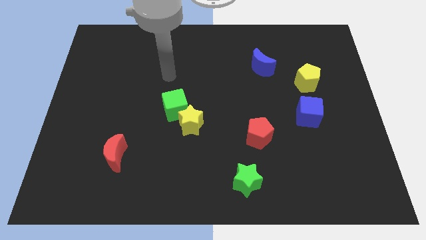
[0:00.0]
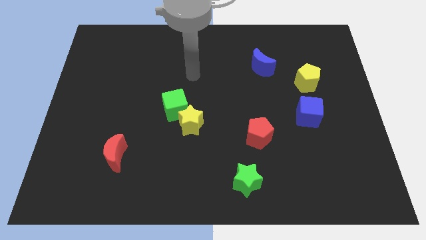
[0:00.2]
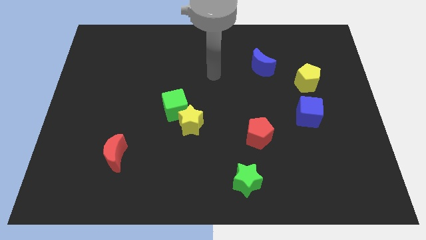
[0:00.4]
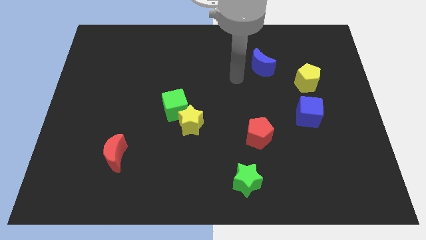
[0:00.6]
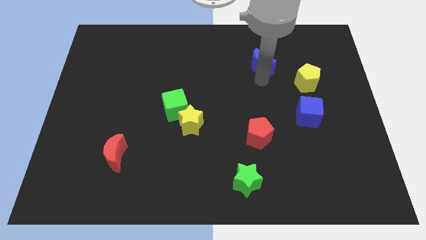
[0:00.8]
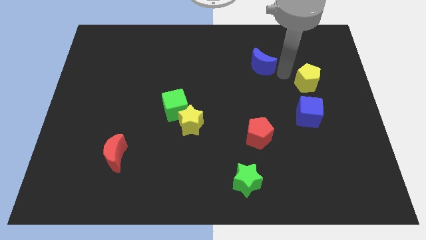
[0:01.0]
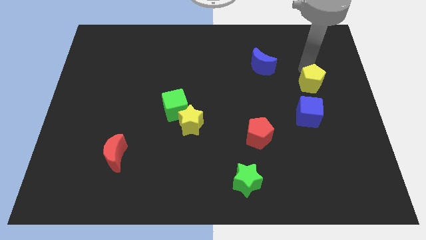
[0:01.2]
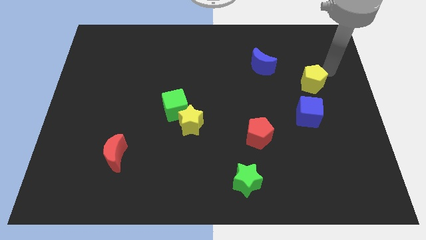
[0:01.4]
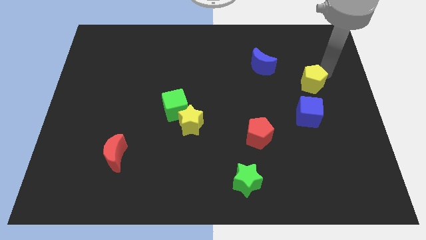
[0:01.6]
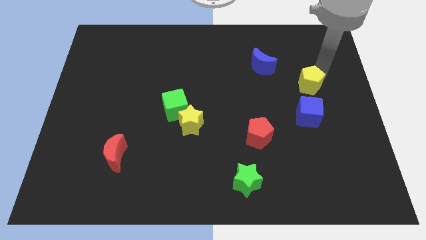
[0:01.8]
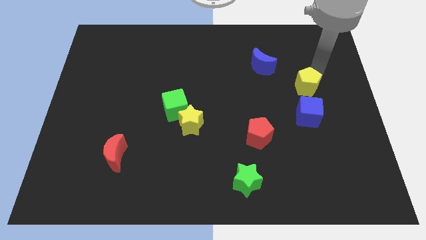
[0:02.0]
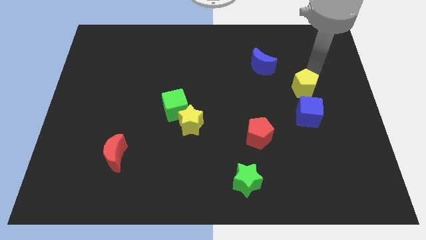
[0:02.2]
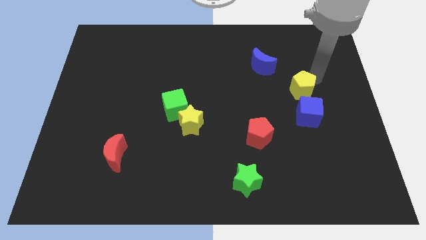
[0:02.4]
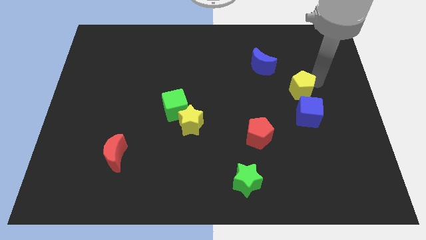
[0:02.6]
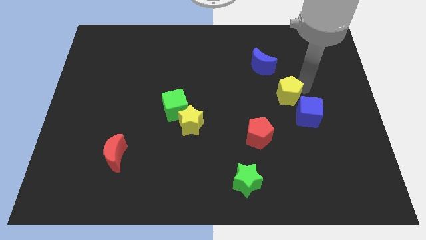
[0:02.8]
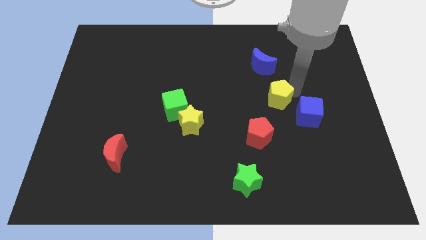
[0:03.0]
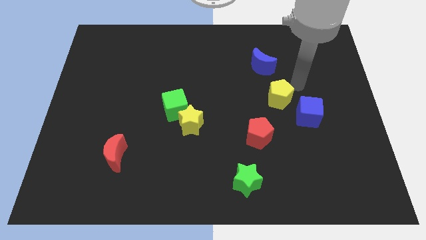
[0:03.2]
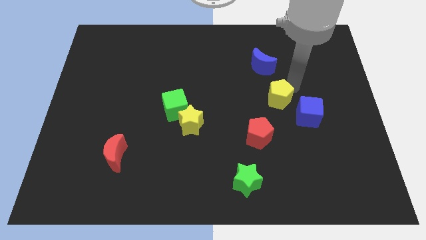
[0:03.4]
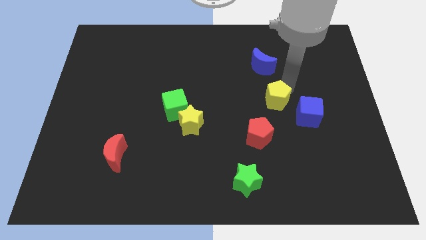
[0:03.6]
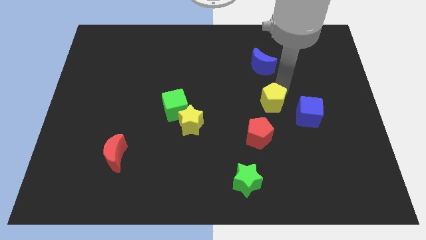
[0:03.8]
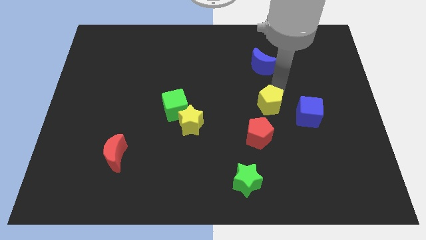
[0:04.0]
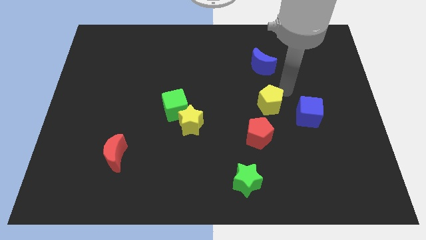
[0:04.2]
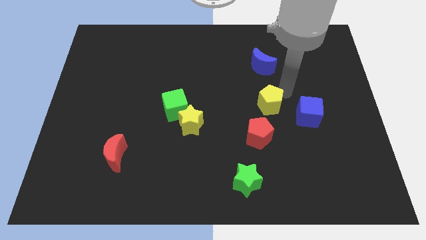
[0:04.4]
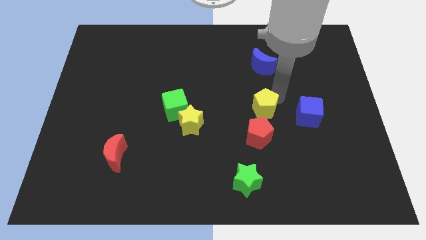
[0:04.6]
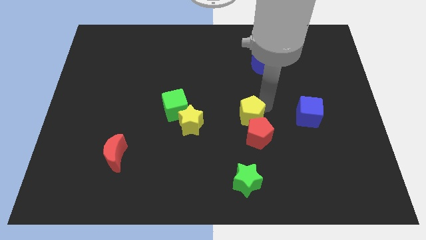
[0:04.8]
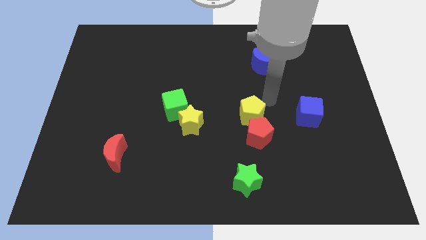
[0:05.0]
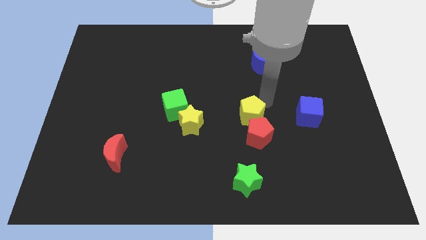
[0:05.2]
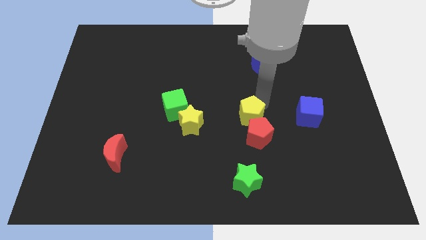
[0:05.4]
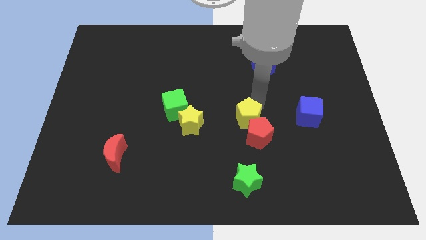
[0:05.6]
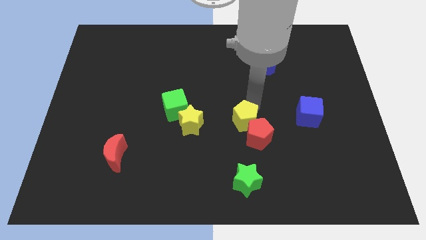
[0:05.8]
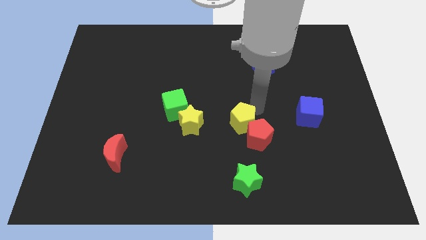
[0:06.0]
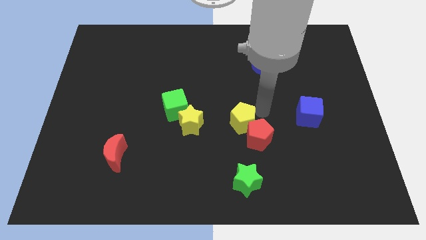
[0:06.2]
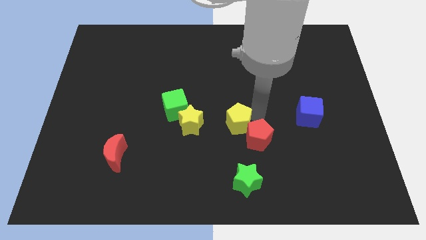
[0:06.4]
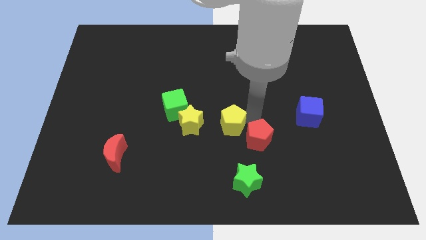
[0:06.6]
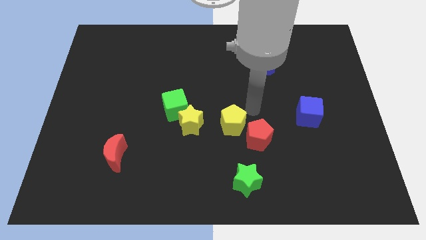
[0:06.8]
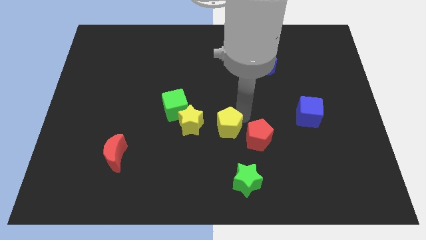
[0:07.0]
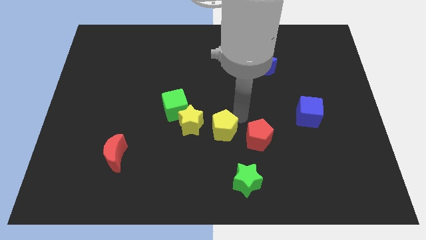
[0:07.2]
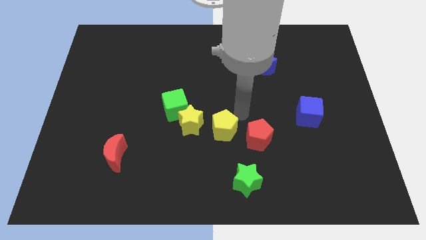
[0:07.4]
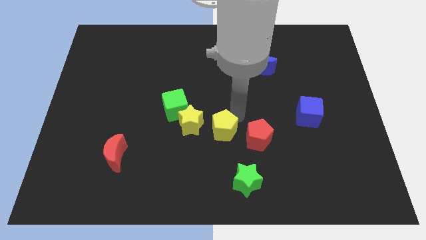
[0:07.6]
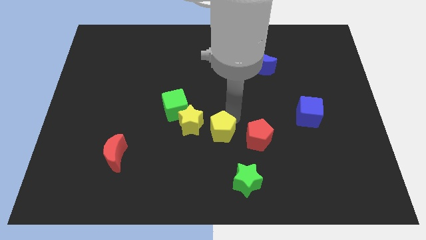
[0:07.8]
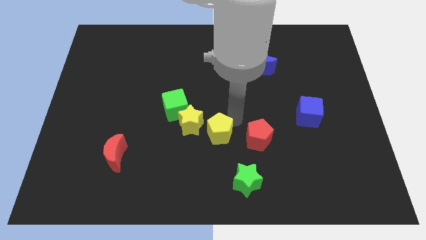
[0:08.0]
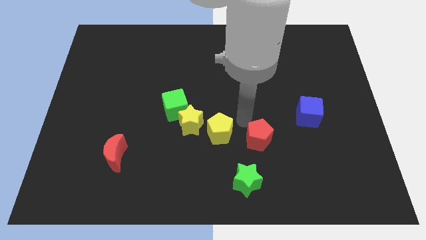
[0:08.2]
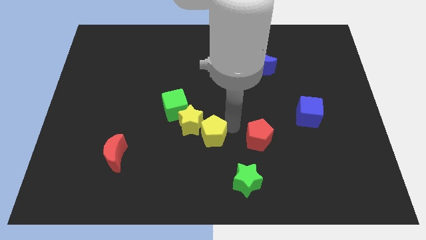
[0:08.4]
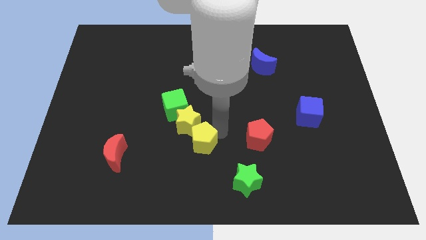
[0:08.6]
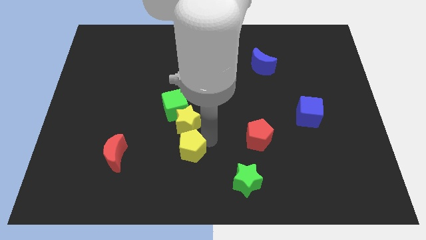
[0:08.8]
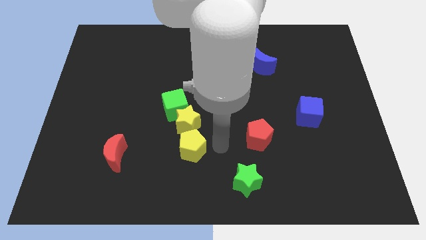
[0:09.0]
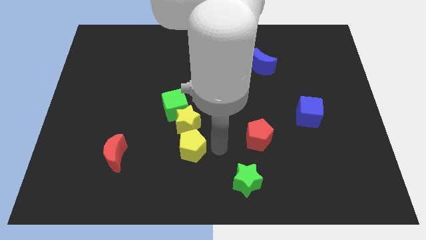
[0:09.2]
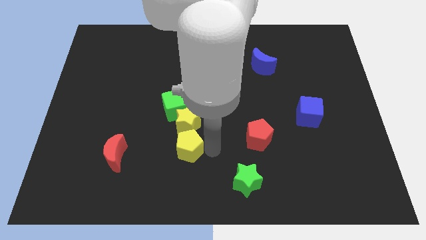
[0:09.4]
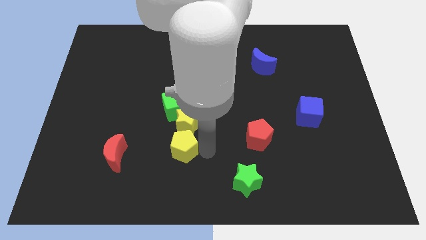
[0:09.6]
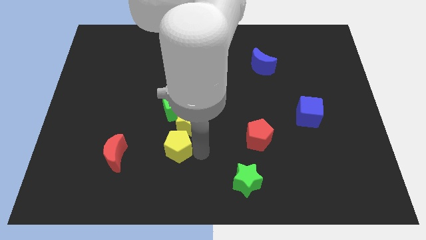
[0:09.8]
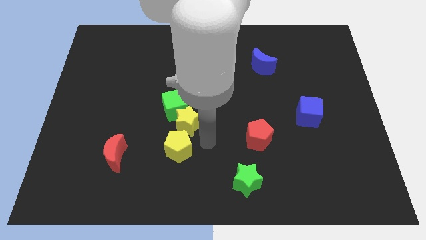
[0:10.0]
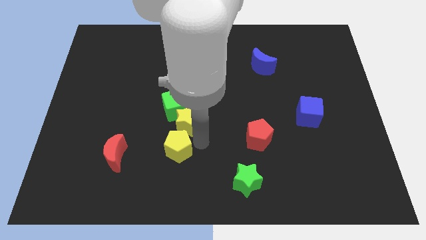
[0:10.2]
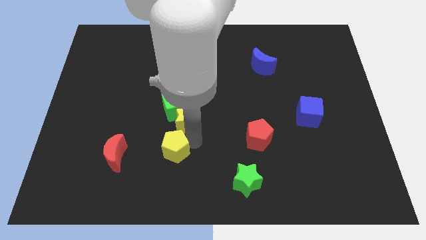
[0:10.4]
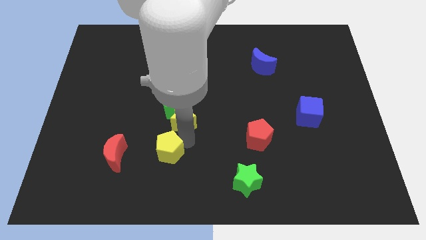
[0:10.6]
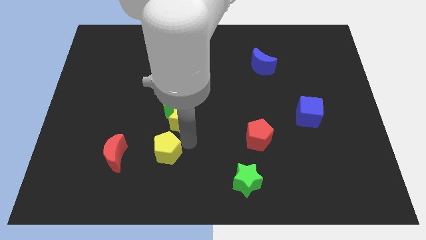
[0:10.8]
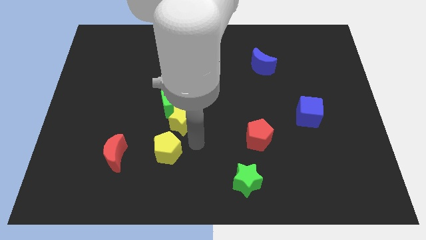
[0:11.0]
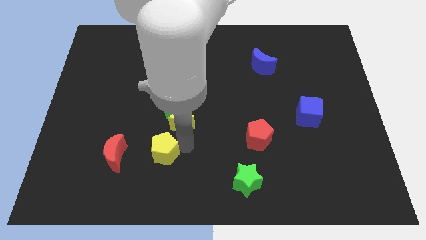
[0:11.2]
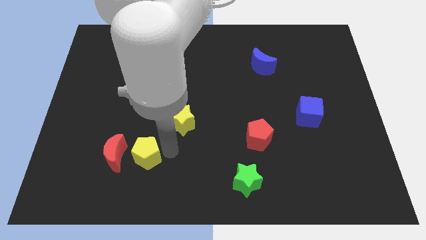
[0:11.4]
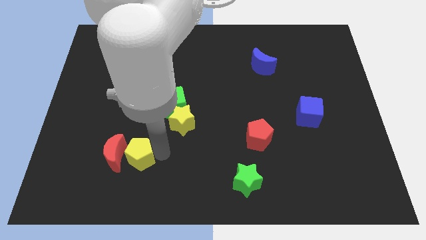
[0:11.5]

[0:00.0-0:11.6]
move the yellow pentagon close to the red moon

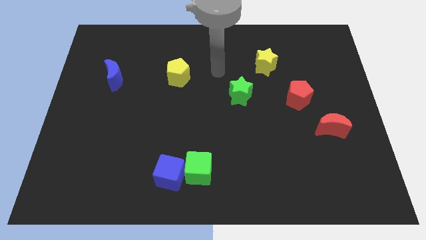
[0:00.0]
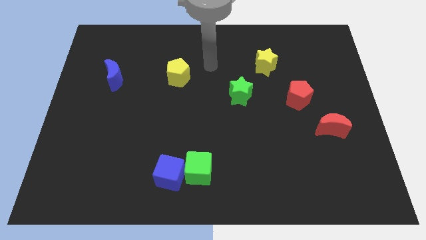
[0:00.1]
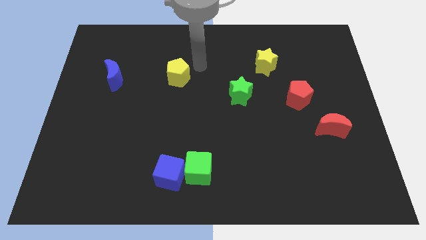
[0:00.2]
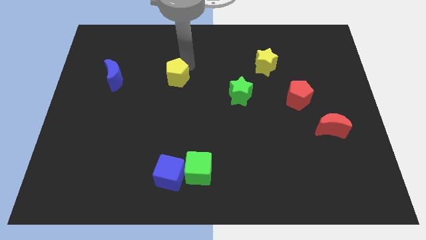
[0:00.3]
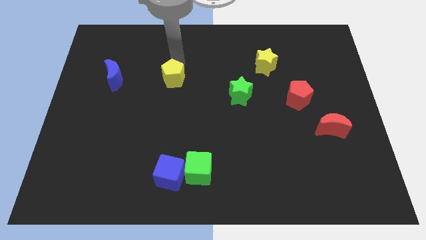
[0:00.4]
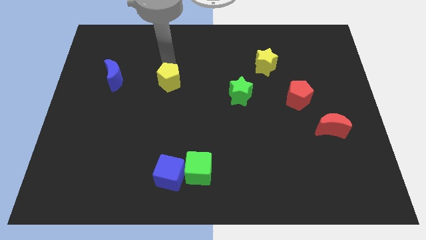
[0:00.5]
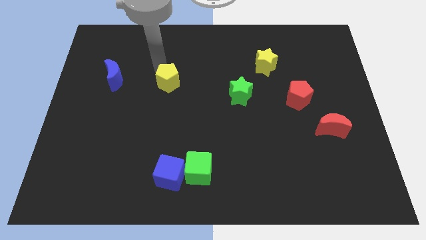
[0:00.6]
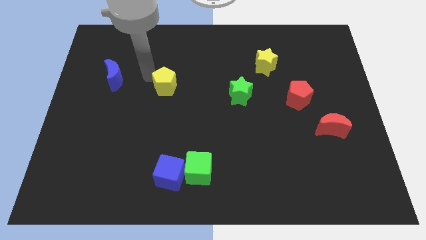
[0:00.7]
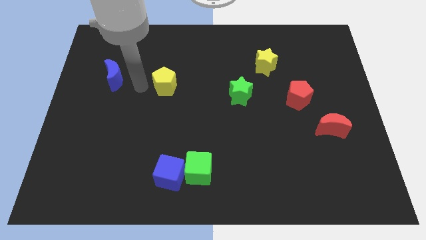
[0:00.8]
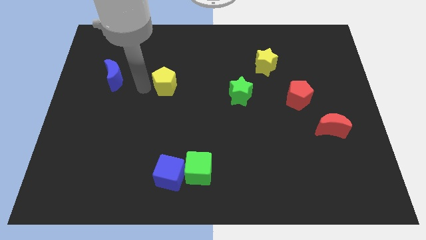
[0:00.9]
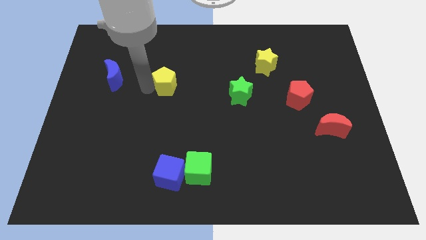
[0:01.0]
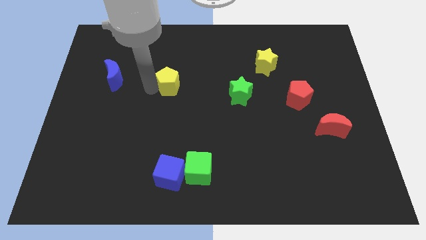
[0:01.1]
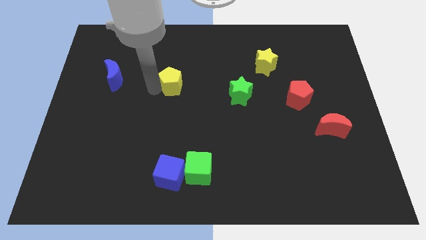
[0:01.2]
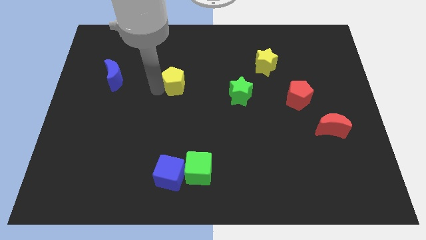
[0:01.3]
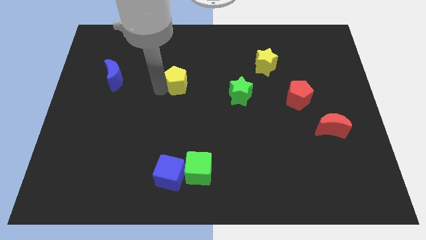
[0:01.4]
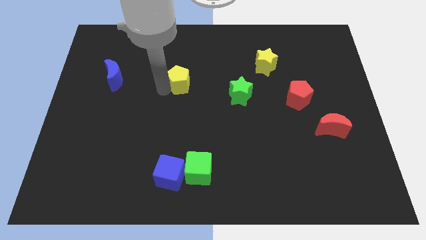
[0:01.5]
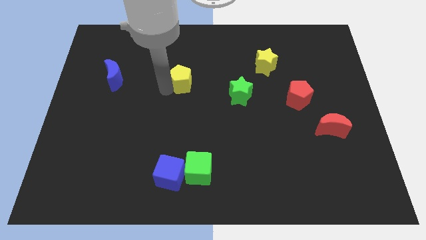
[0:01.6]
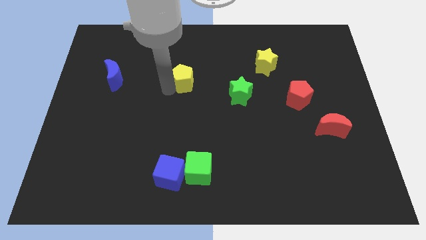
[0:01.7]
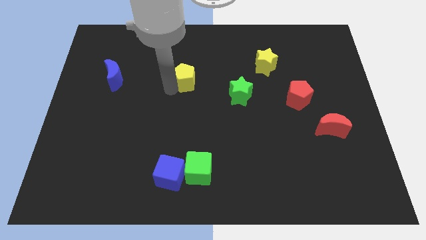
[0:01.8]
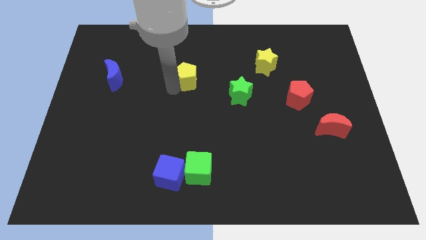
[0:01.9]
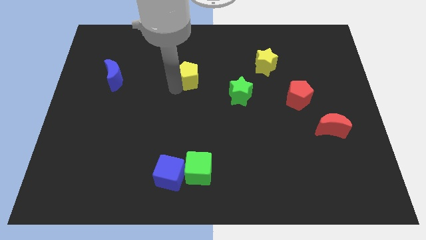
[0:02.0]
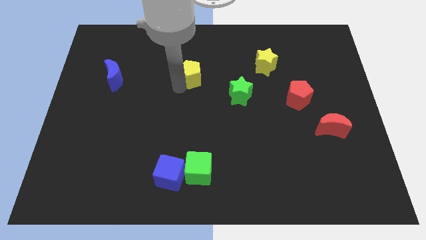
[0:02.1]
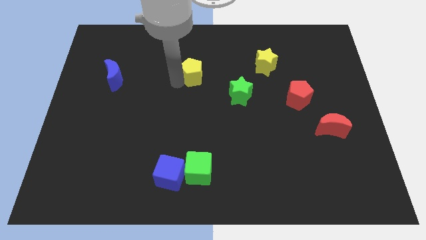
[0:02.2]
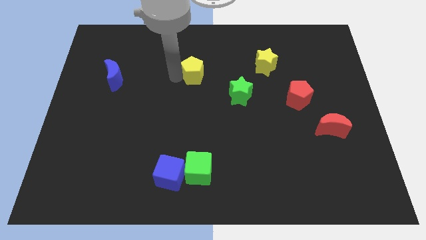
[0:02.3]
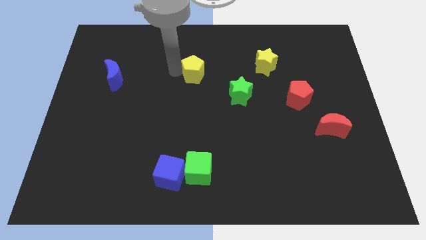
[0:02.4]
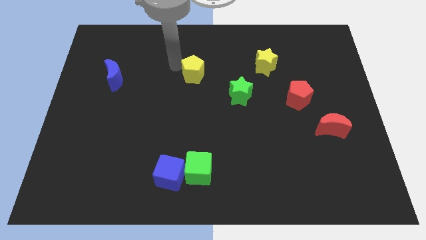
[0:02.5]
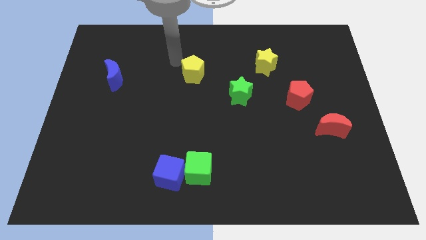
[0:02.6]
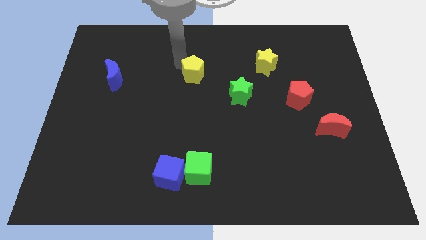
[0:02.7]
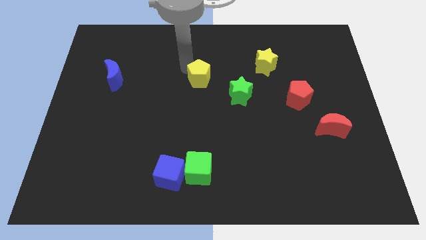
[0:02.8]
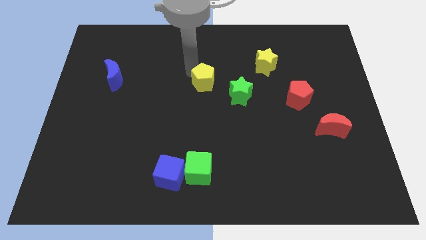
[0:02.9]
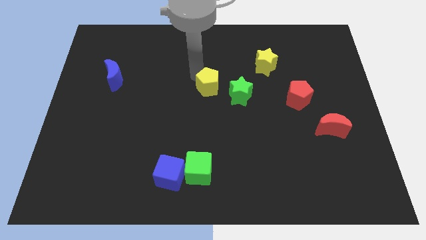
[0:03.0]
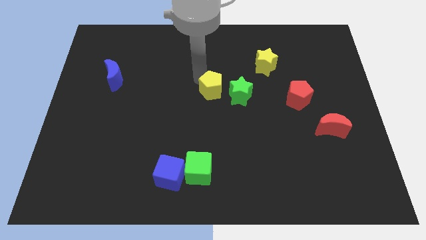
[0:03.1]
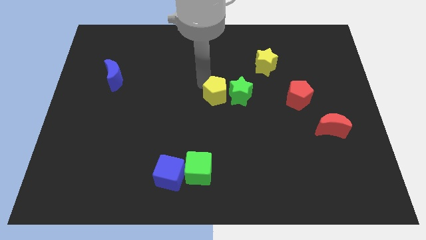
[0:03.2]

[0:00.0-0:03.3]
push the yellow pentagon to the green star
